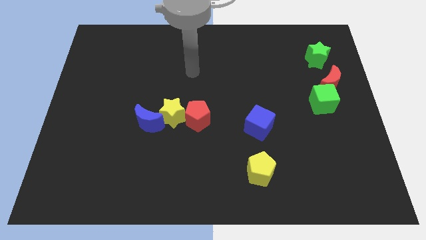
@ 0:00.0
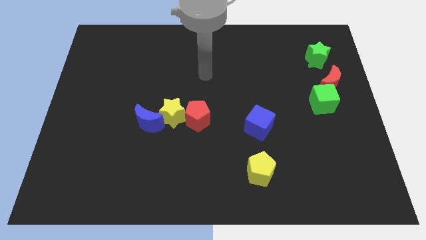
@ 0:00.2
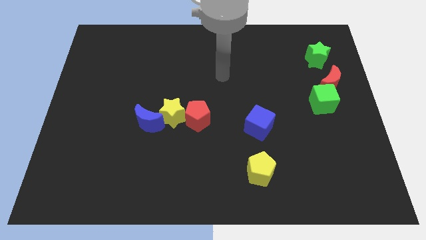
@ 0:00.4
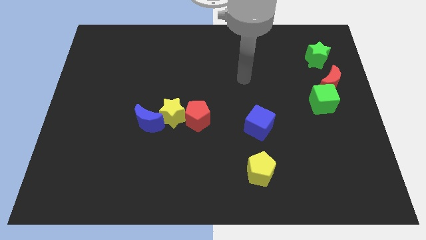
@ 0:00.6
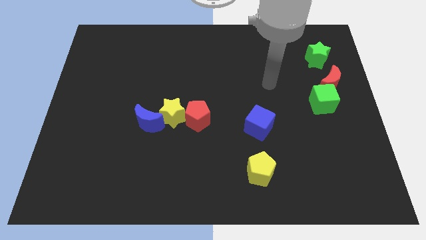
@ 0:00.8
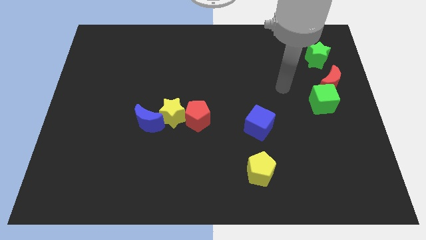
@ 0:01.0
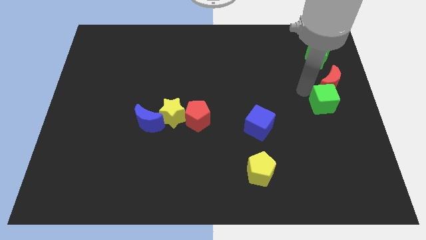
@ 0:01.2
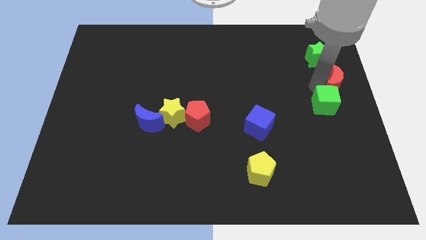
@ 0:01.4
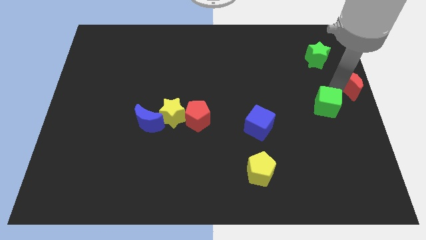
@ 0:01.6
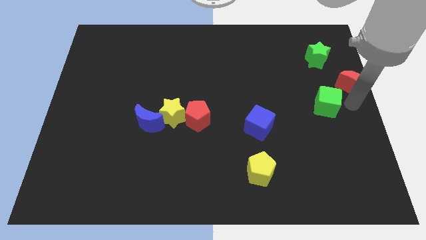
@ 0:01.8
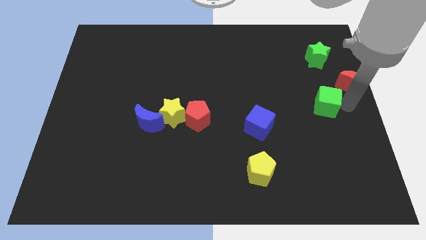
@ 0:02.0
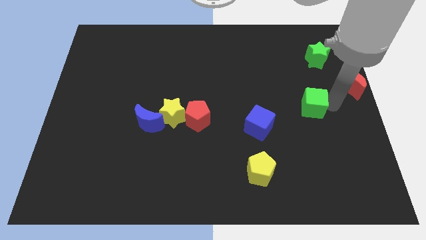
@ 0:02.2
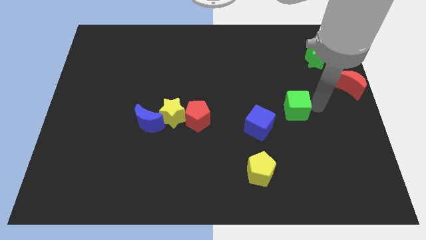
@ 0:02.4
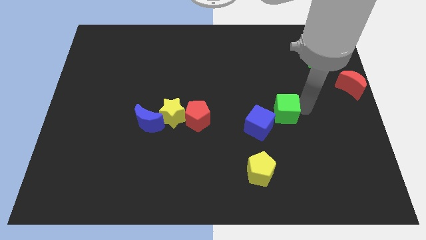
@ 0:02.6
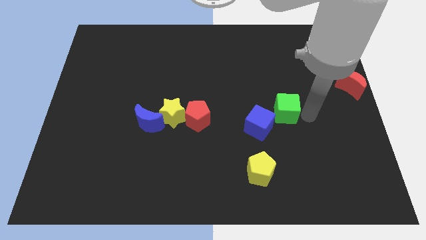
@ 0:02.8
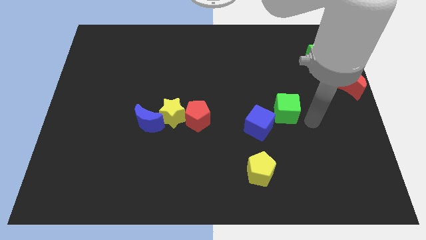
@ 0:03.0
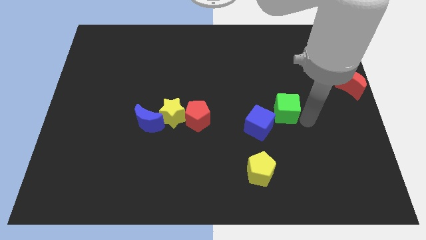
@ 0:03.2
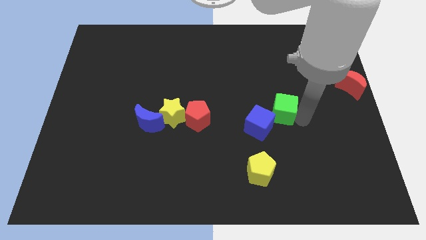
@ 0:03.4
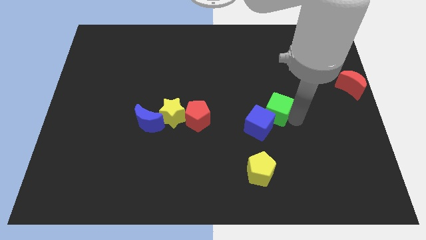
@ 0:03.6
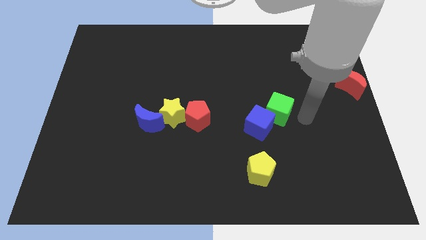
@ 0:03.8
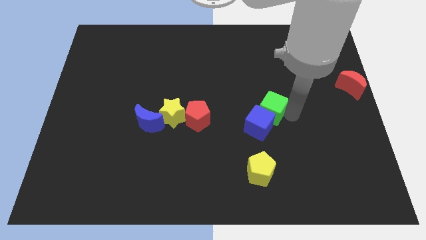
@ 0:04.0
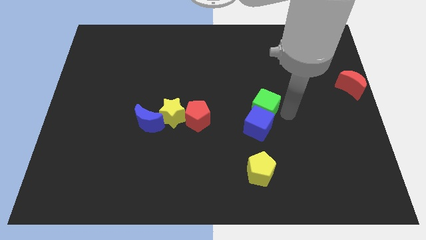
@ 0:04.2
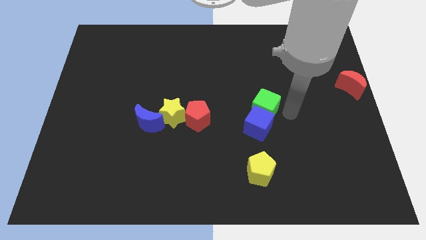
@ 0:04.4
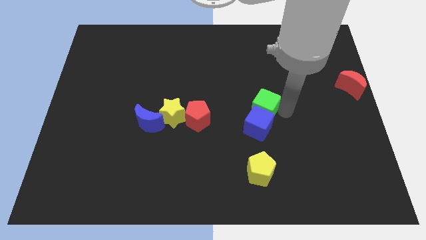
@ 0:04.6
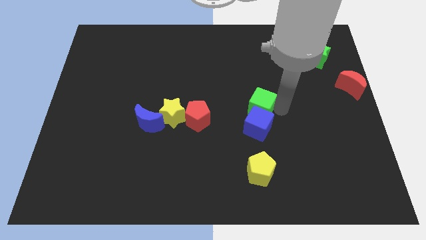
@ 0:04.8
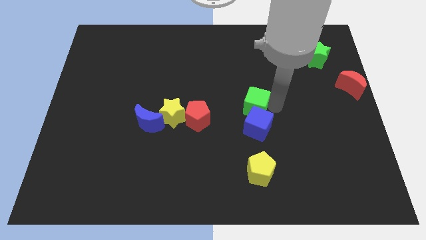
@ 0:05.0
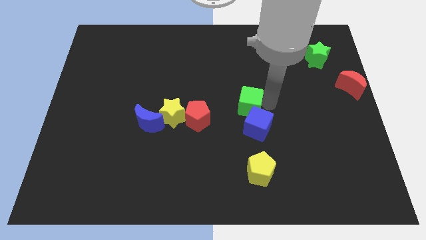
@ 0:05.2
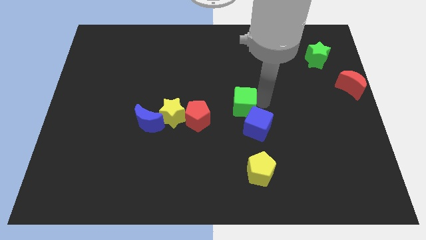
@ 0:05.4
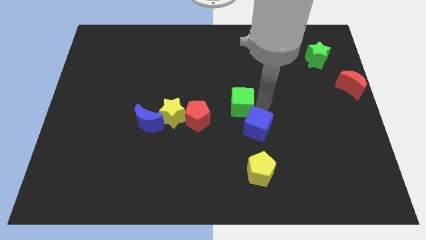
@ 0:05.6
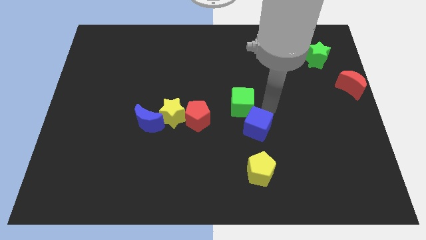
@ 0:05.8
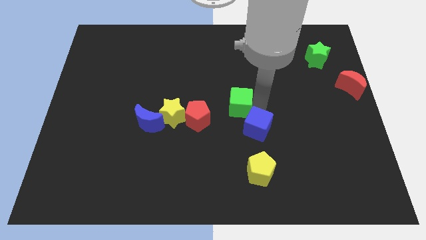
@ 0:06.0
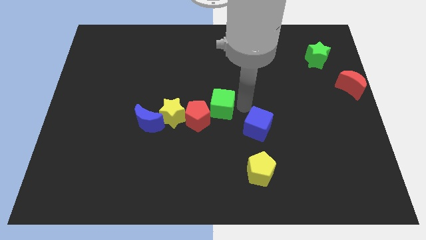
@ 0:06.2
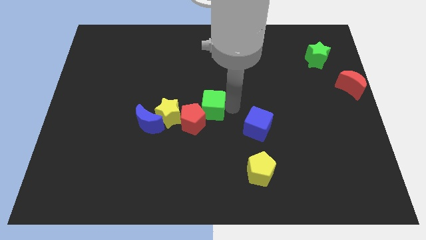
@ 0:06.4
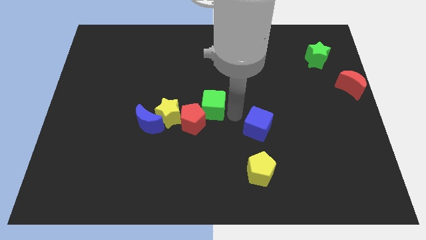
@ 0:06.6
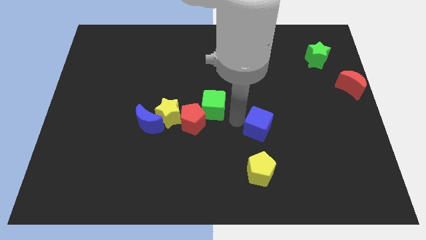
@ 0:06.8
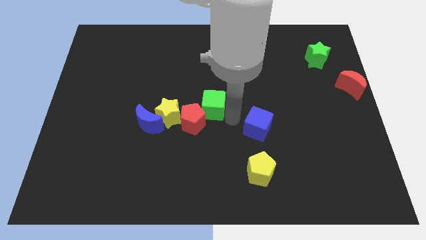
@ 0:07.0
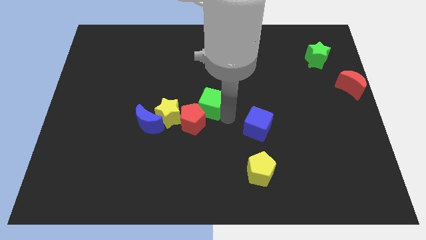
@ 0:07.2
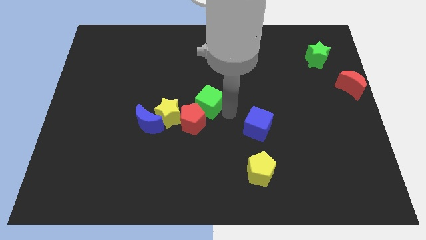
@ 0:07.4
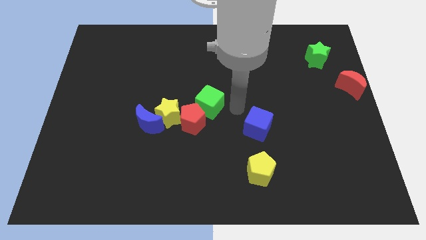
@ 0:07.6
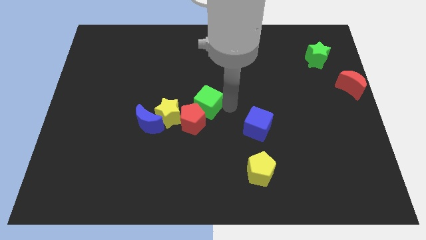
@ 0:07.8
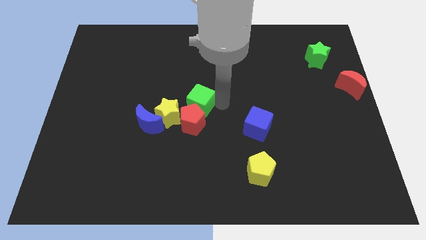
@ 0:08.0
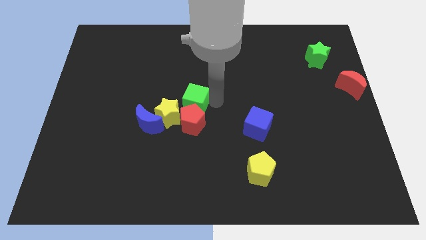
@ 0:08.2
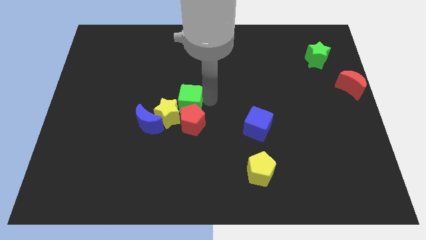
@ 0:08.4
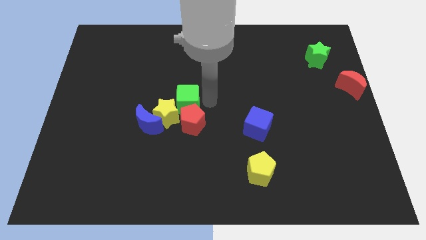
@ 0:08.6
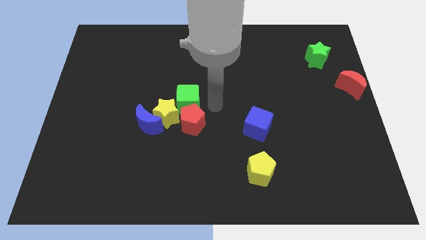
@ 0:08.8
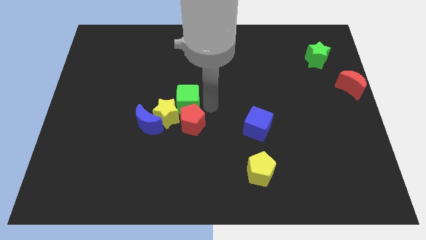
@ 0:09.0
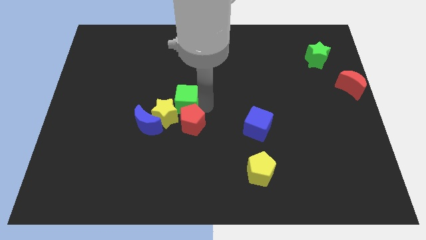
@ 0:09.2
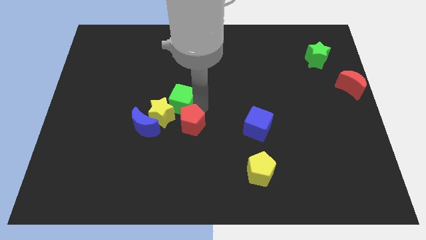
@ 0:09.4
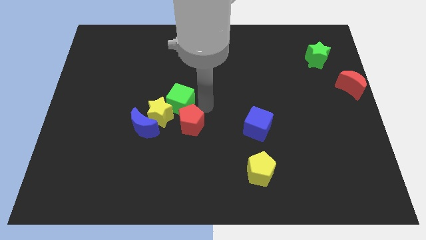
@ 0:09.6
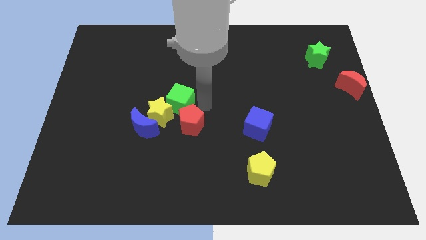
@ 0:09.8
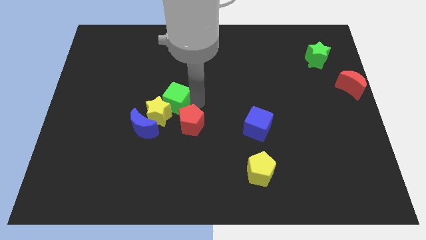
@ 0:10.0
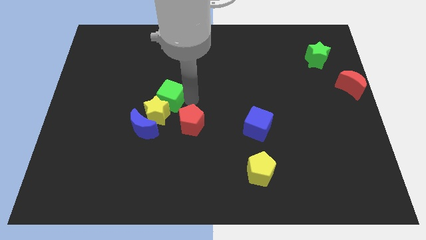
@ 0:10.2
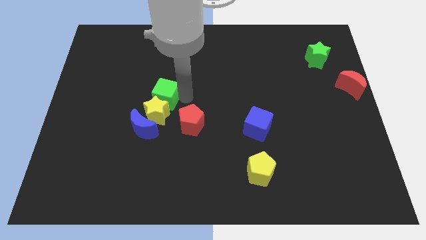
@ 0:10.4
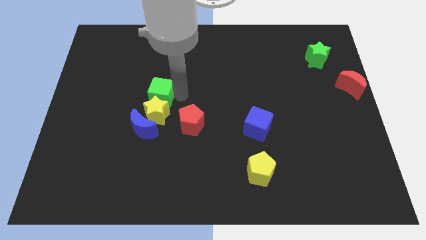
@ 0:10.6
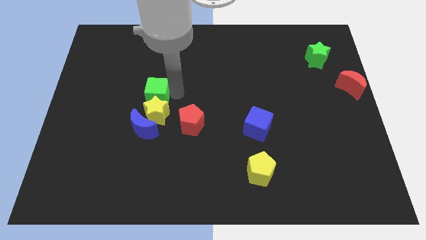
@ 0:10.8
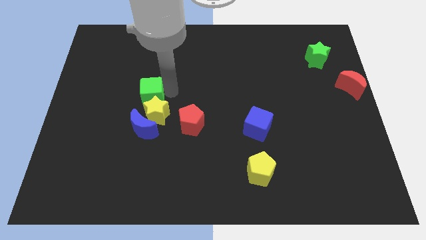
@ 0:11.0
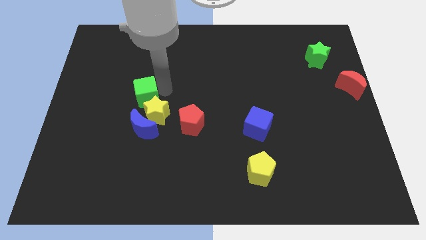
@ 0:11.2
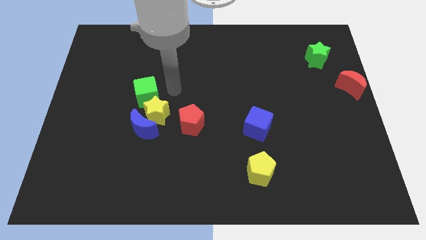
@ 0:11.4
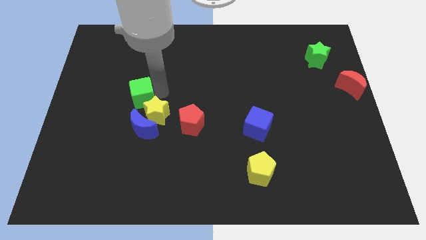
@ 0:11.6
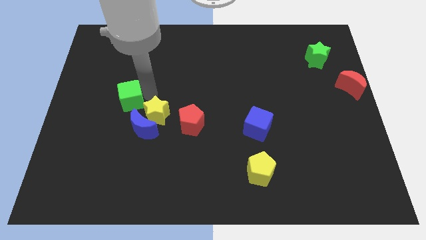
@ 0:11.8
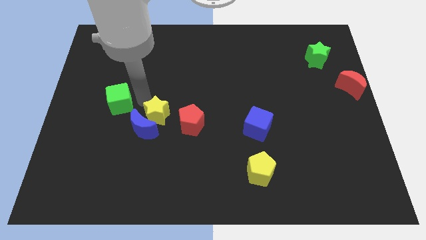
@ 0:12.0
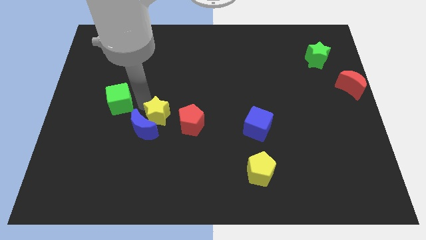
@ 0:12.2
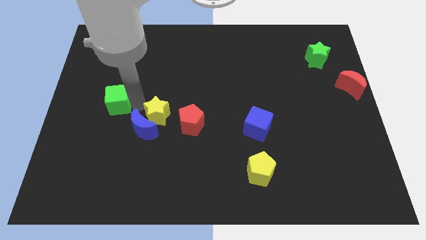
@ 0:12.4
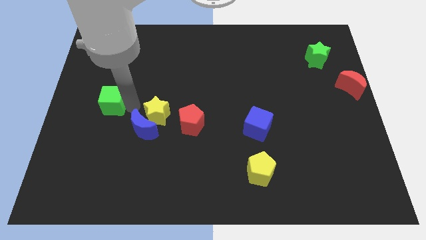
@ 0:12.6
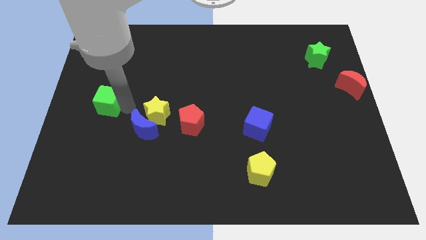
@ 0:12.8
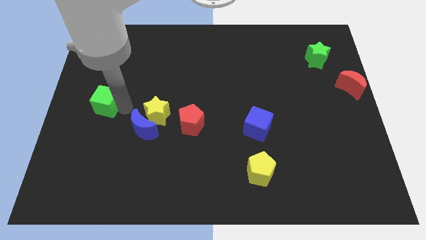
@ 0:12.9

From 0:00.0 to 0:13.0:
push the green cube to the center left
